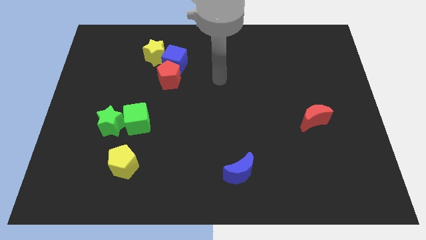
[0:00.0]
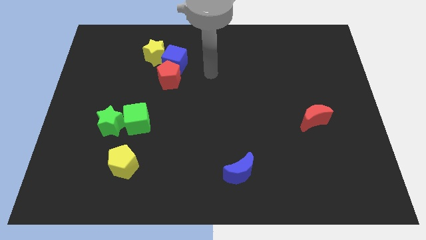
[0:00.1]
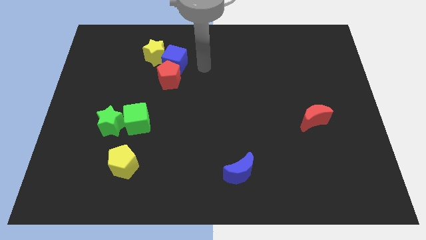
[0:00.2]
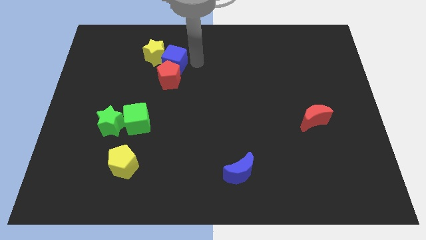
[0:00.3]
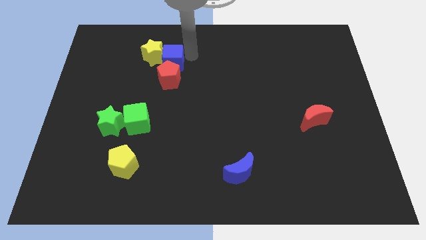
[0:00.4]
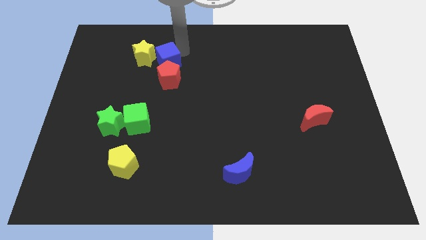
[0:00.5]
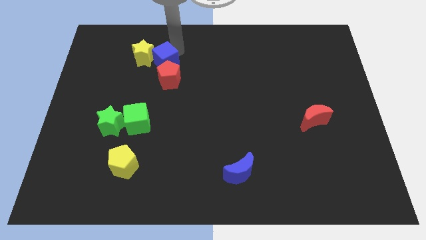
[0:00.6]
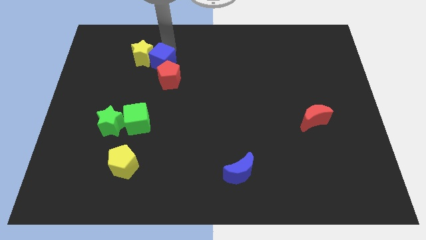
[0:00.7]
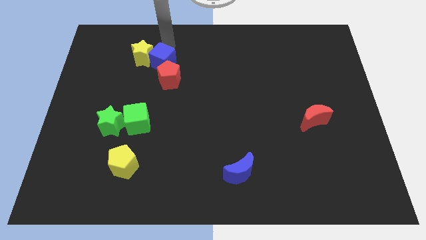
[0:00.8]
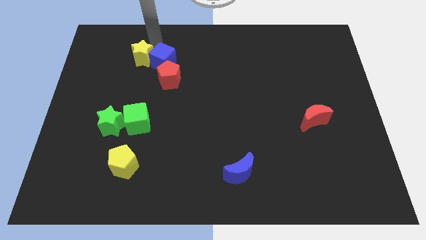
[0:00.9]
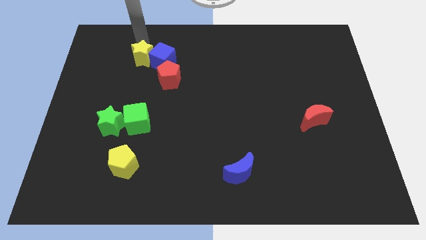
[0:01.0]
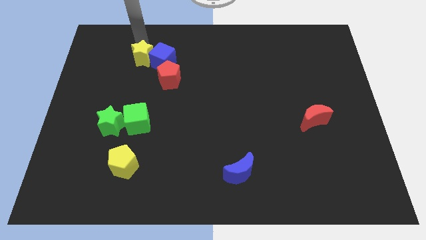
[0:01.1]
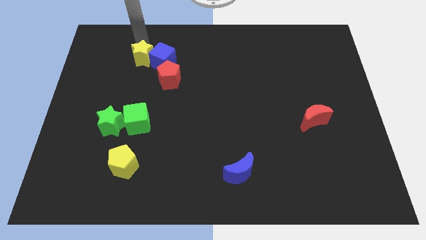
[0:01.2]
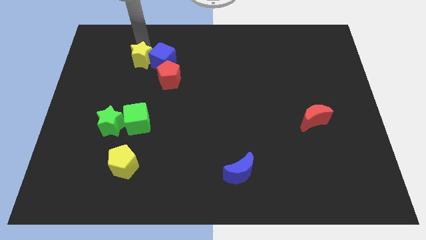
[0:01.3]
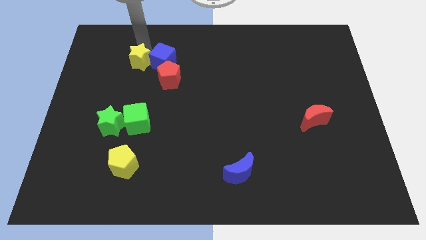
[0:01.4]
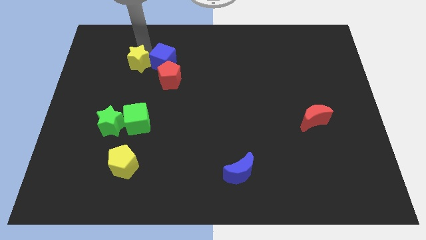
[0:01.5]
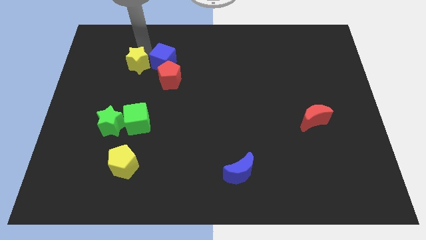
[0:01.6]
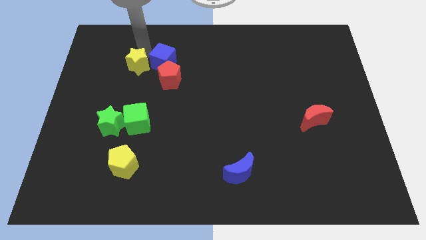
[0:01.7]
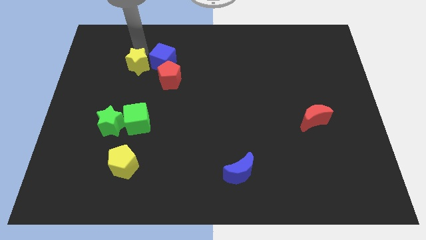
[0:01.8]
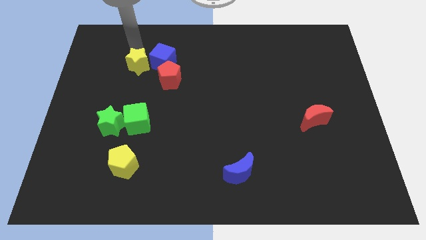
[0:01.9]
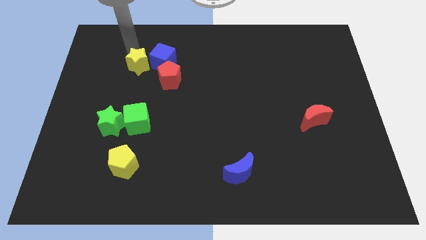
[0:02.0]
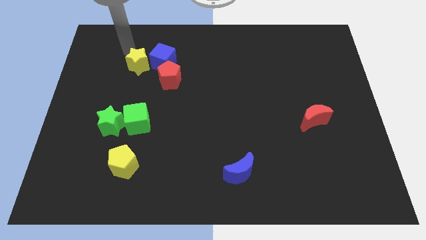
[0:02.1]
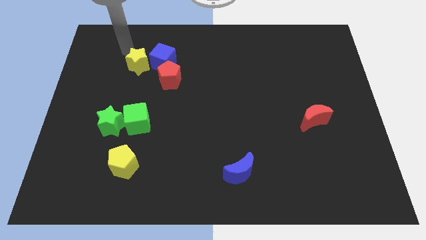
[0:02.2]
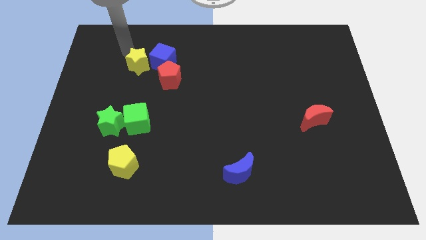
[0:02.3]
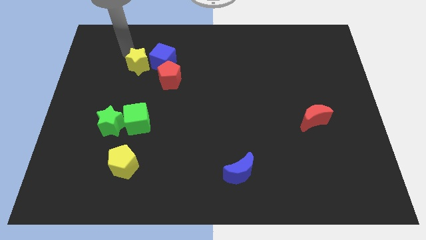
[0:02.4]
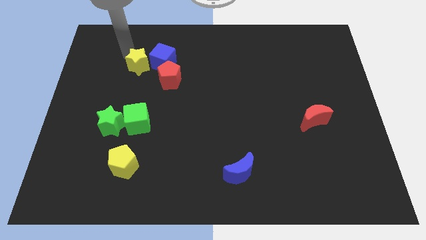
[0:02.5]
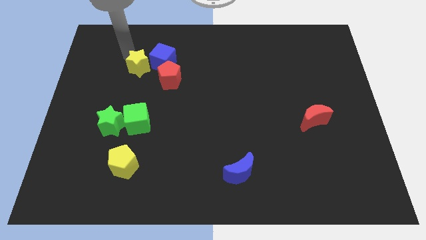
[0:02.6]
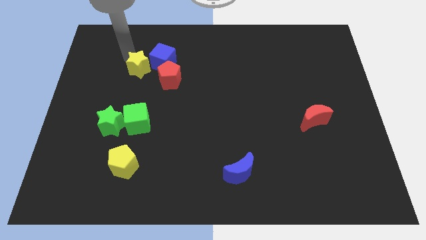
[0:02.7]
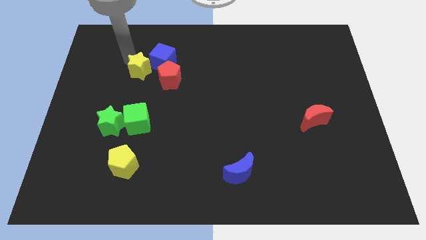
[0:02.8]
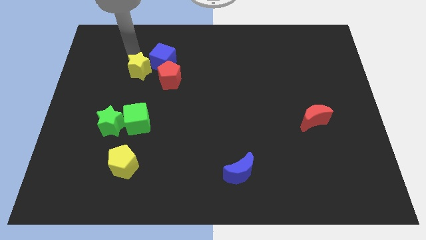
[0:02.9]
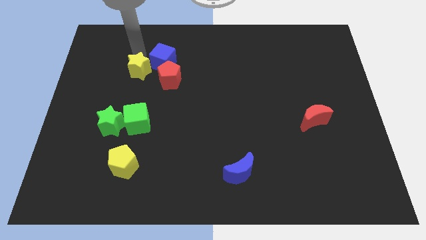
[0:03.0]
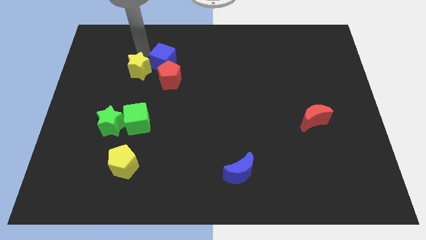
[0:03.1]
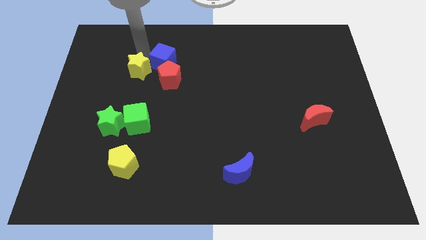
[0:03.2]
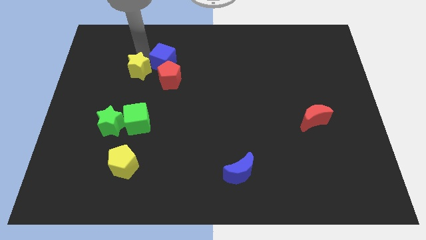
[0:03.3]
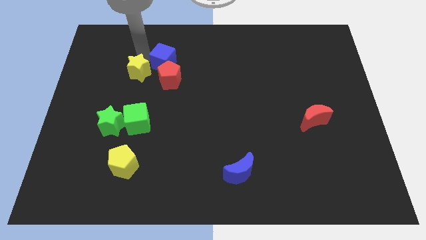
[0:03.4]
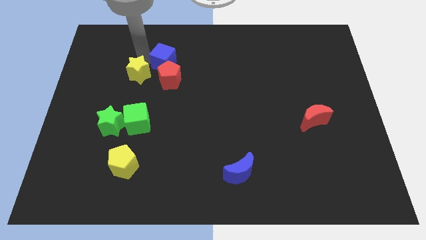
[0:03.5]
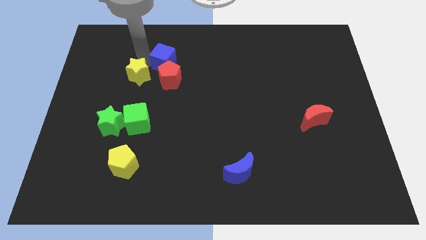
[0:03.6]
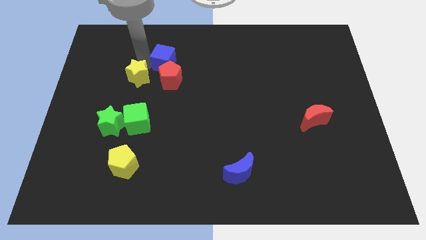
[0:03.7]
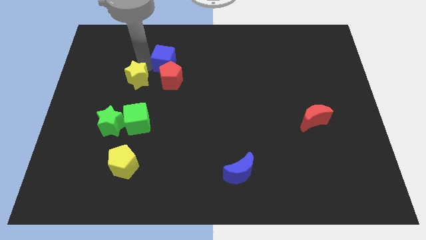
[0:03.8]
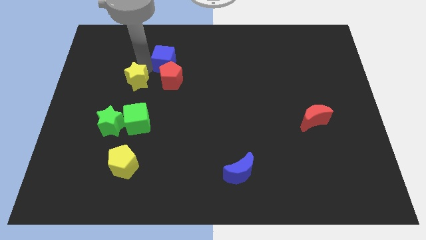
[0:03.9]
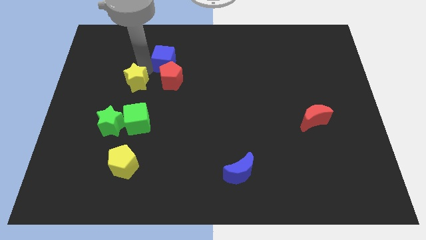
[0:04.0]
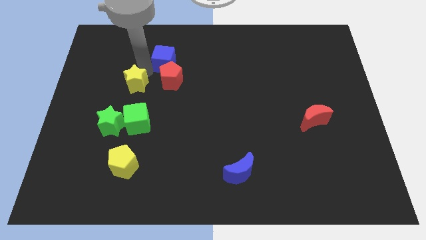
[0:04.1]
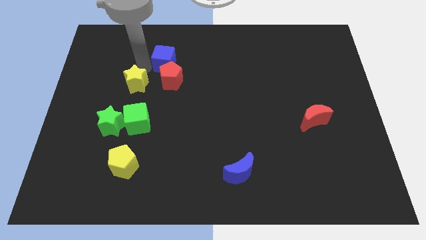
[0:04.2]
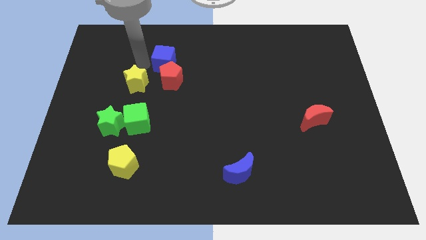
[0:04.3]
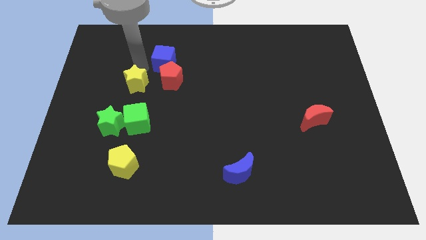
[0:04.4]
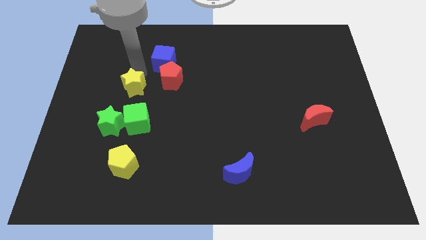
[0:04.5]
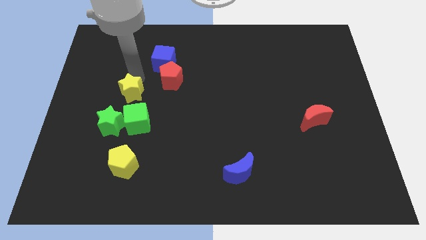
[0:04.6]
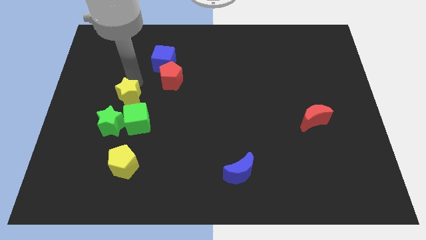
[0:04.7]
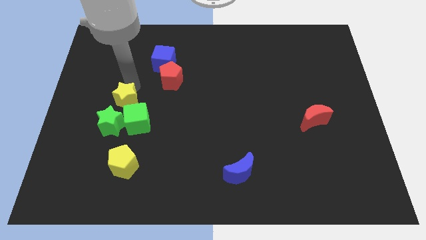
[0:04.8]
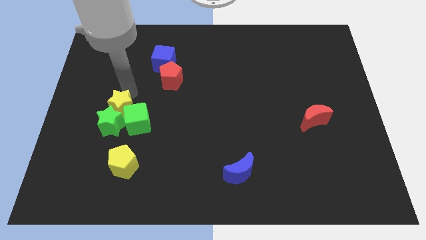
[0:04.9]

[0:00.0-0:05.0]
push the yellow star towards the green star

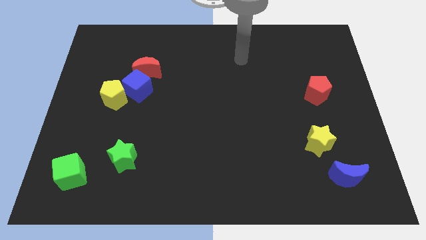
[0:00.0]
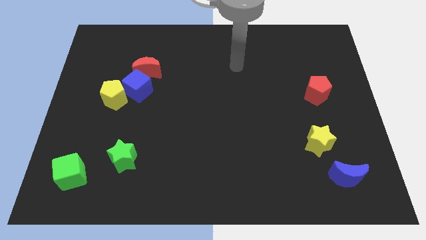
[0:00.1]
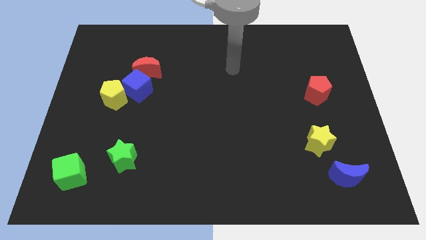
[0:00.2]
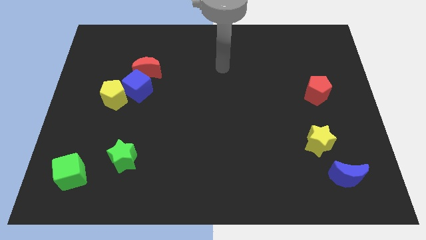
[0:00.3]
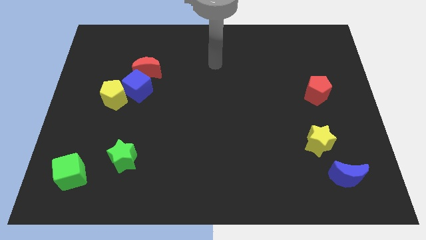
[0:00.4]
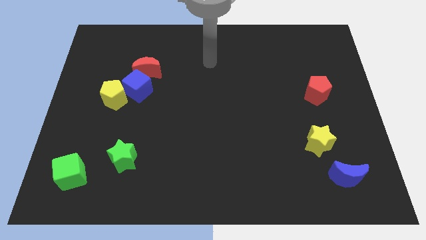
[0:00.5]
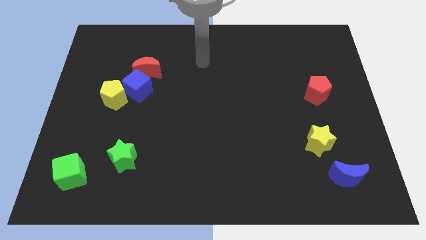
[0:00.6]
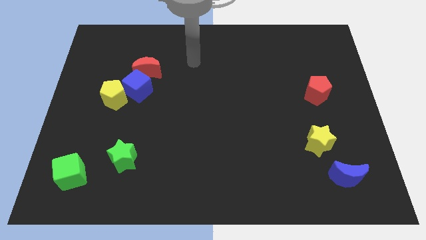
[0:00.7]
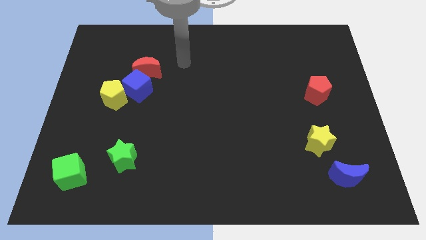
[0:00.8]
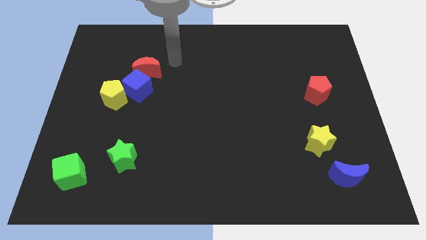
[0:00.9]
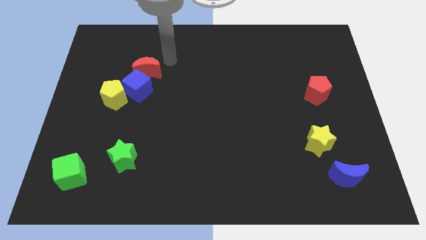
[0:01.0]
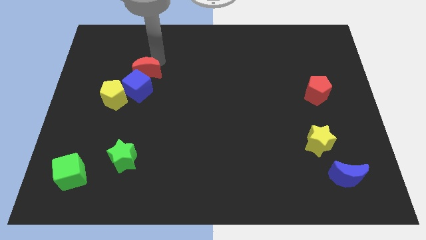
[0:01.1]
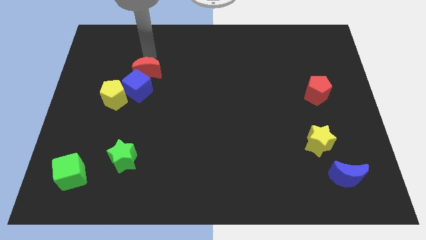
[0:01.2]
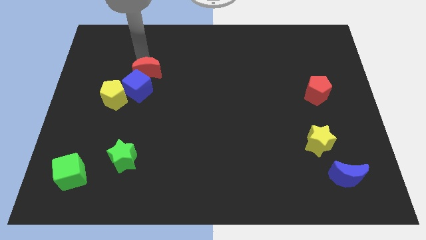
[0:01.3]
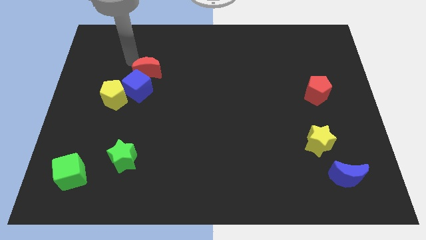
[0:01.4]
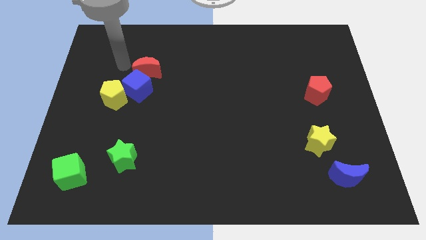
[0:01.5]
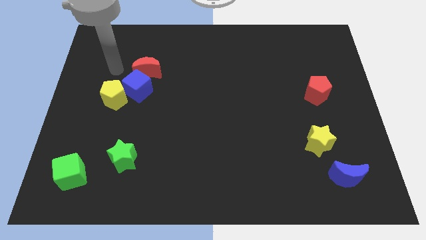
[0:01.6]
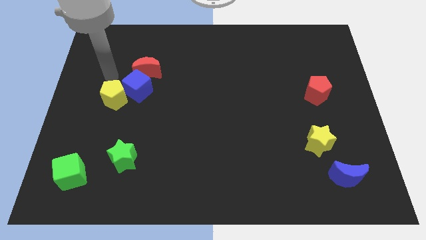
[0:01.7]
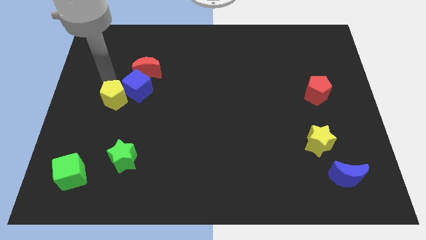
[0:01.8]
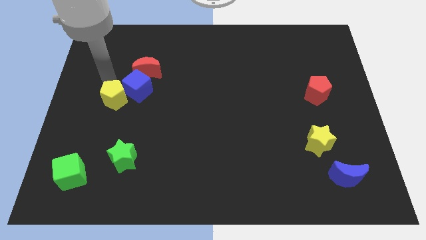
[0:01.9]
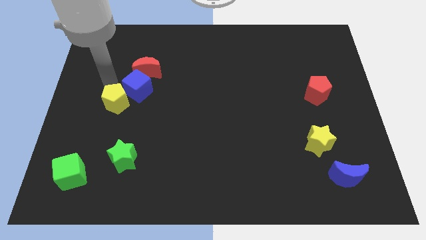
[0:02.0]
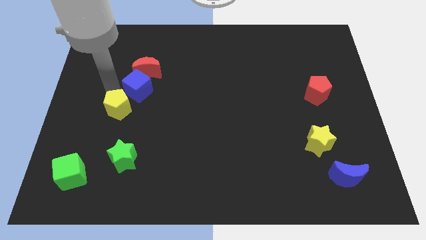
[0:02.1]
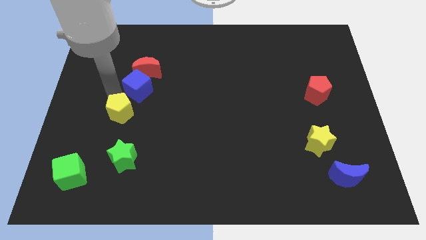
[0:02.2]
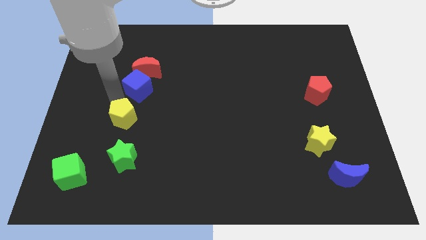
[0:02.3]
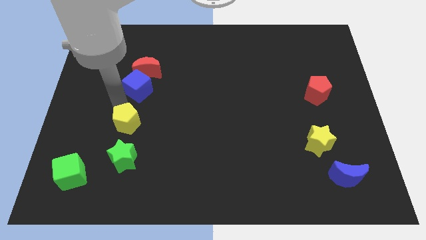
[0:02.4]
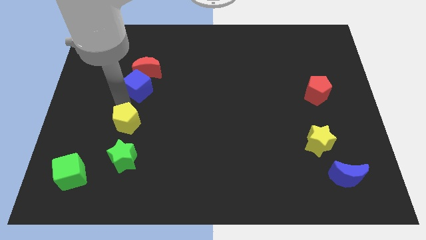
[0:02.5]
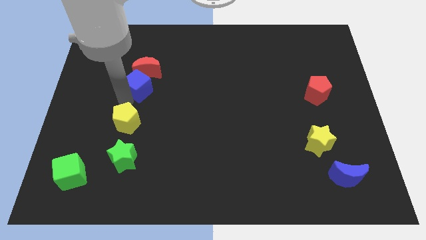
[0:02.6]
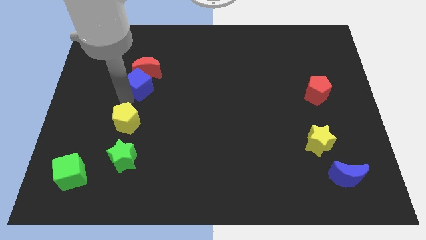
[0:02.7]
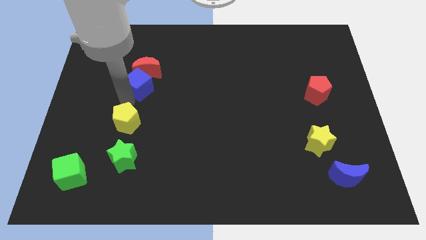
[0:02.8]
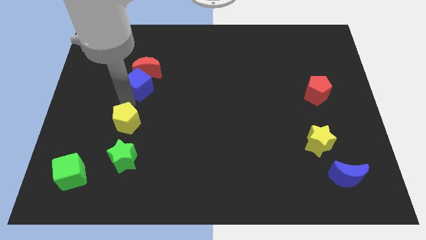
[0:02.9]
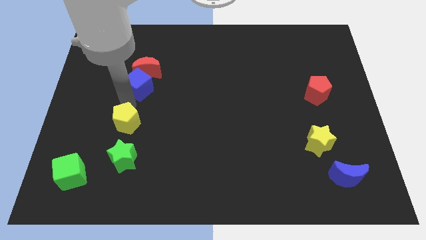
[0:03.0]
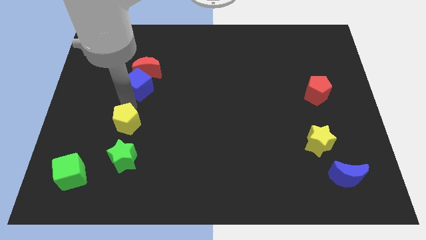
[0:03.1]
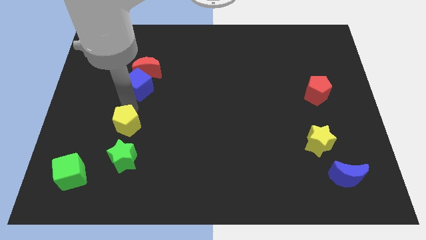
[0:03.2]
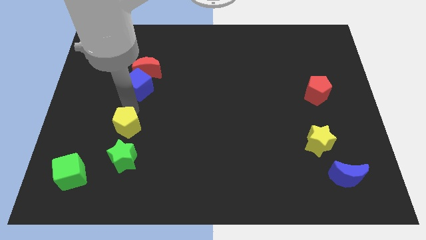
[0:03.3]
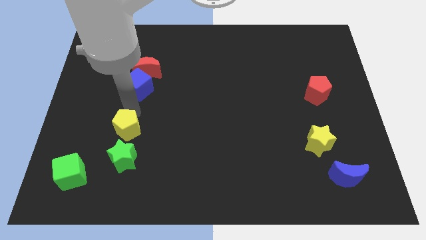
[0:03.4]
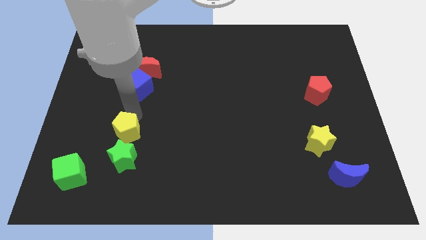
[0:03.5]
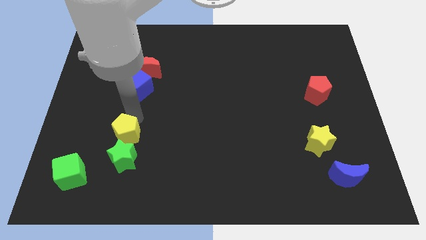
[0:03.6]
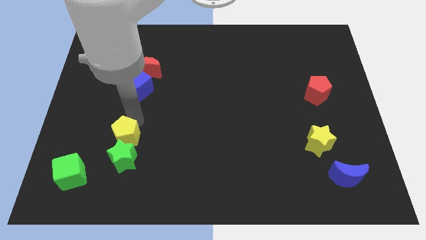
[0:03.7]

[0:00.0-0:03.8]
put the yellow pentagon close to the green star
